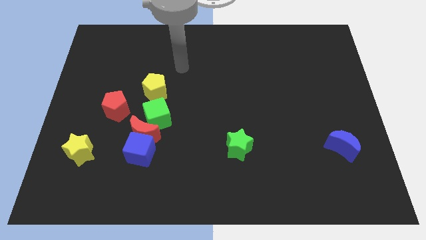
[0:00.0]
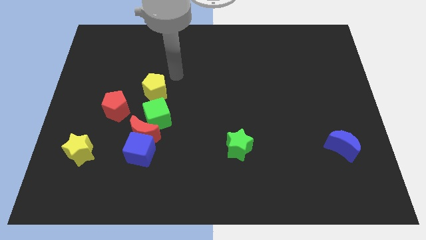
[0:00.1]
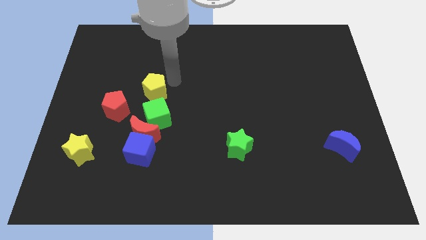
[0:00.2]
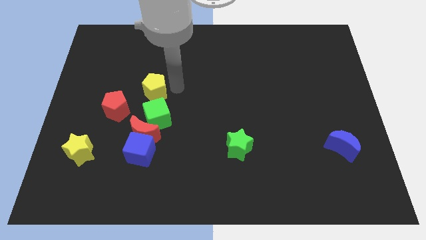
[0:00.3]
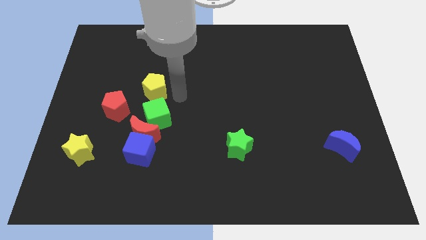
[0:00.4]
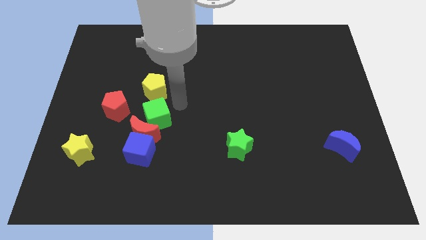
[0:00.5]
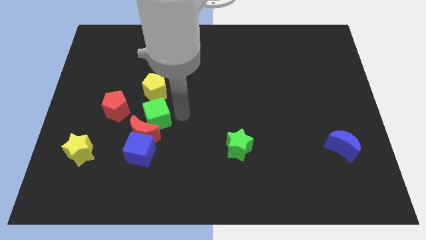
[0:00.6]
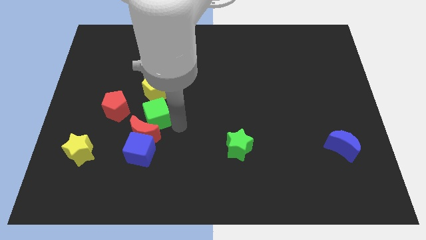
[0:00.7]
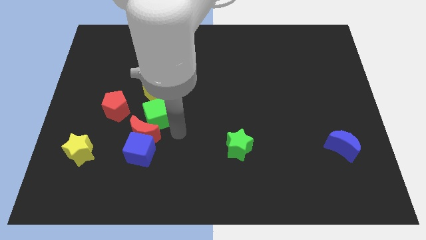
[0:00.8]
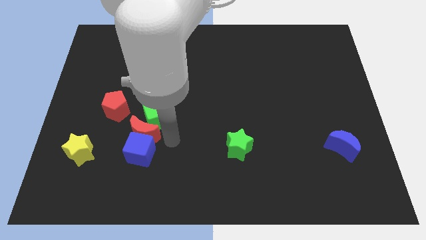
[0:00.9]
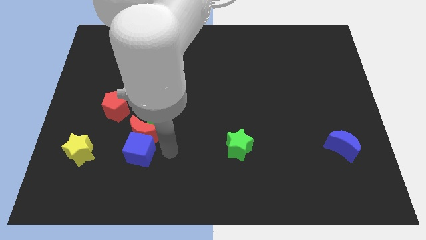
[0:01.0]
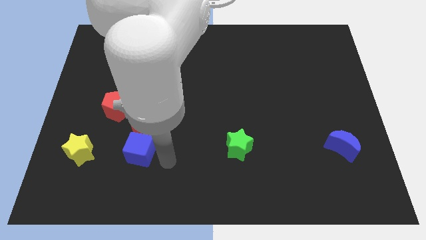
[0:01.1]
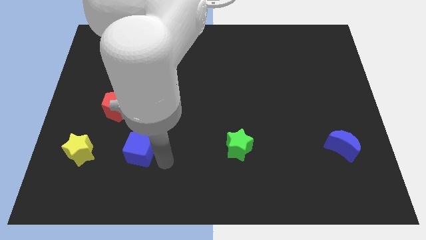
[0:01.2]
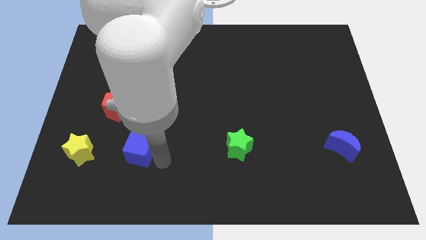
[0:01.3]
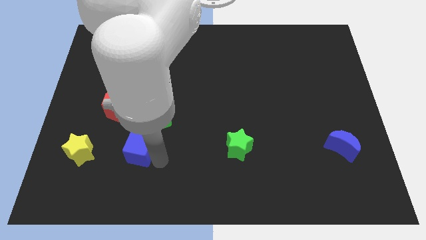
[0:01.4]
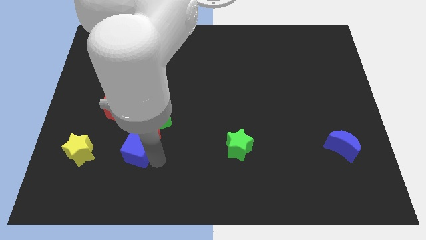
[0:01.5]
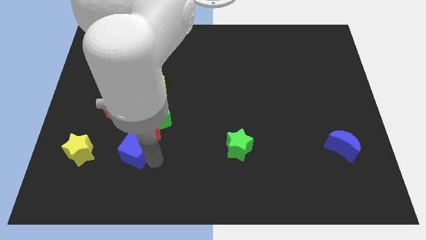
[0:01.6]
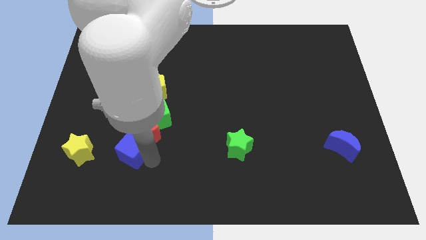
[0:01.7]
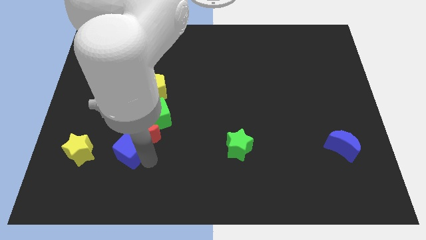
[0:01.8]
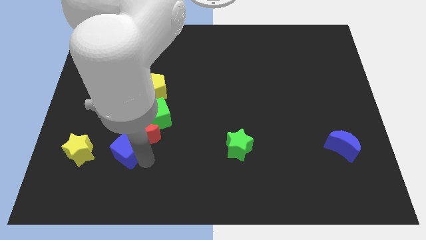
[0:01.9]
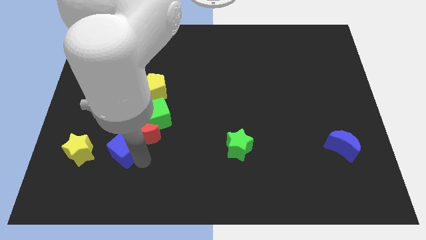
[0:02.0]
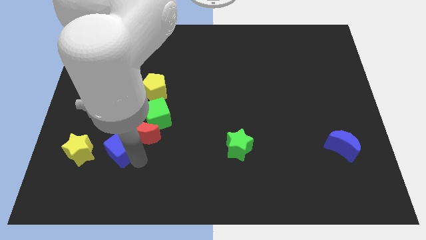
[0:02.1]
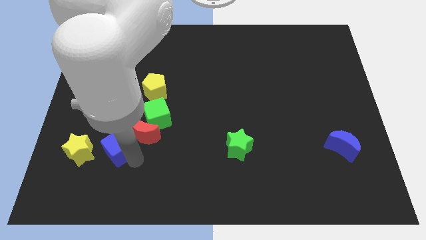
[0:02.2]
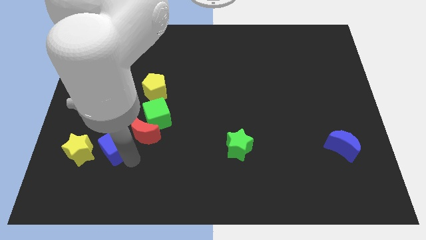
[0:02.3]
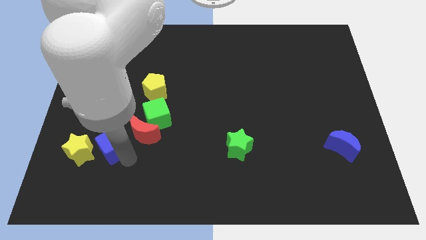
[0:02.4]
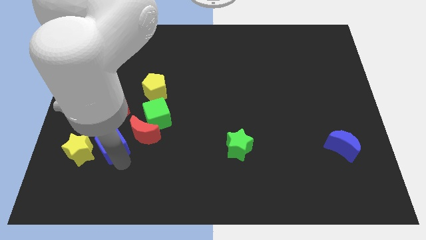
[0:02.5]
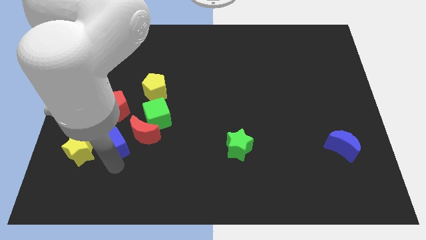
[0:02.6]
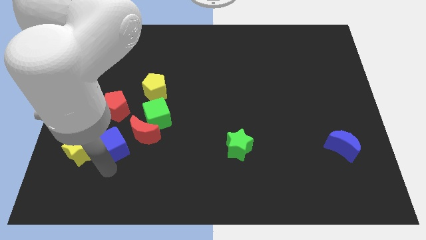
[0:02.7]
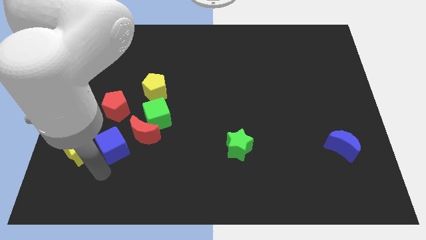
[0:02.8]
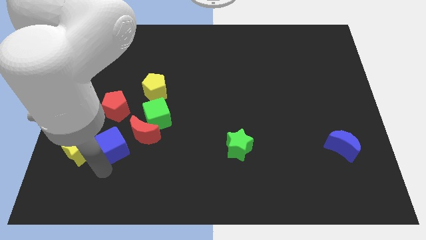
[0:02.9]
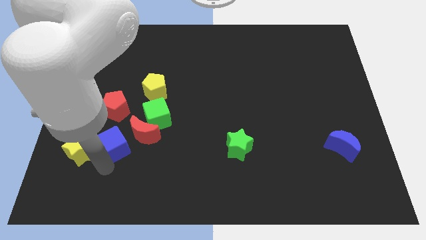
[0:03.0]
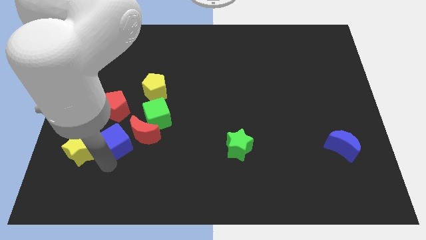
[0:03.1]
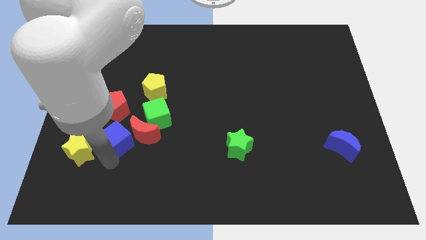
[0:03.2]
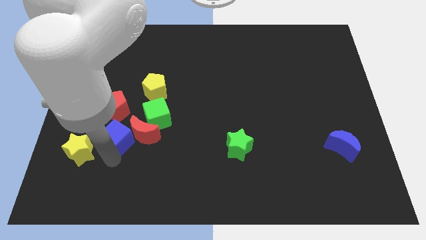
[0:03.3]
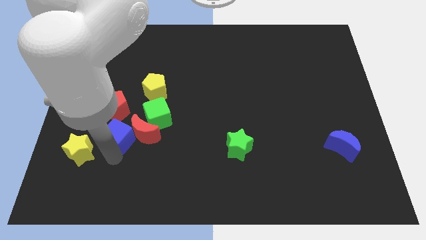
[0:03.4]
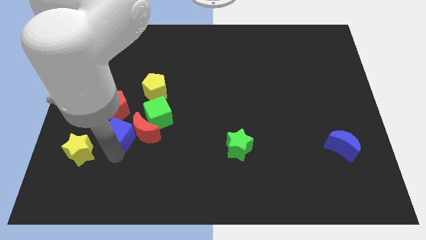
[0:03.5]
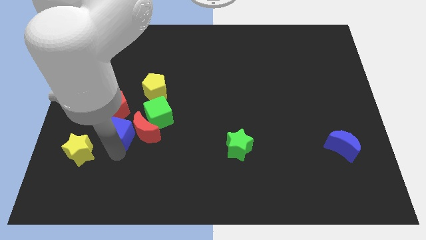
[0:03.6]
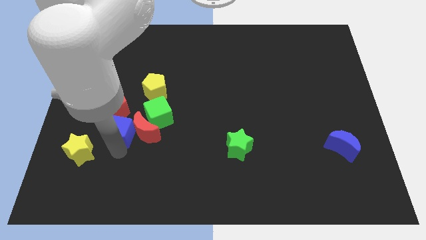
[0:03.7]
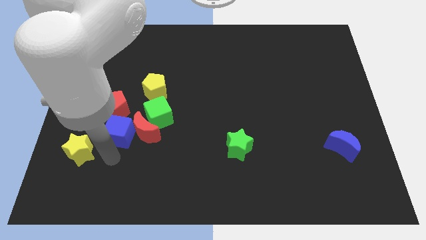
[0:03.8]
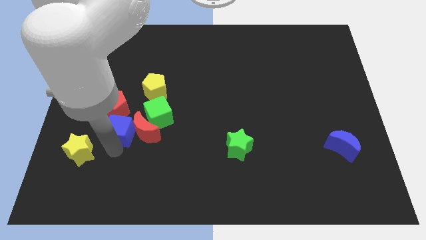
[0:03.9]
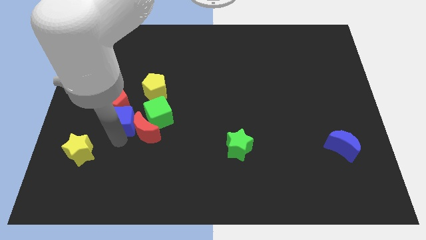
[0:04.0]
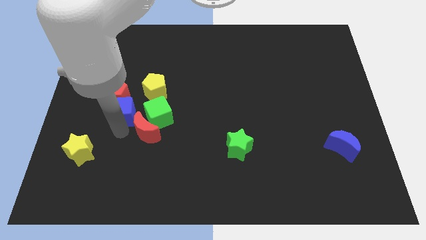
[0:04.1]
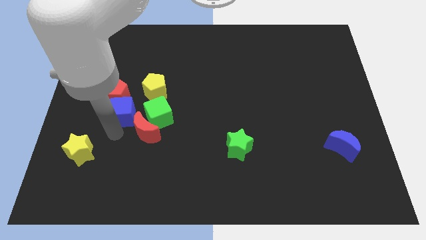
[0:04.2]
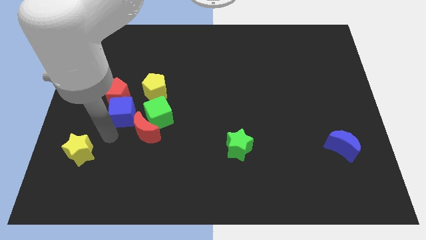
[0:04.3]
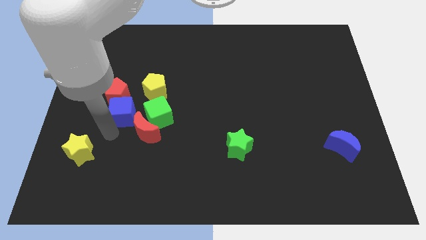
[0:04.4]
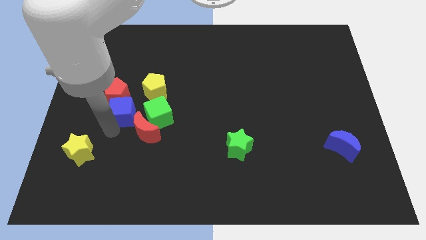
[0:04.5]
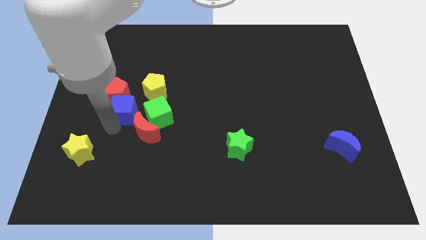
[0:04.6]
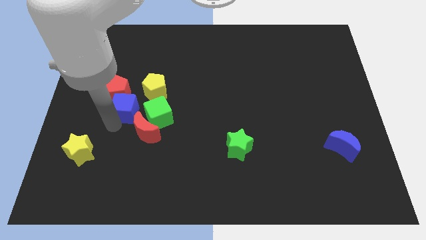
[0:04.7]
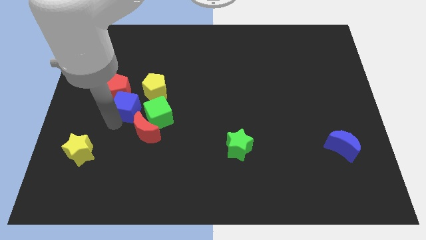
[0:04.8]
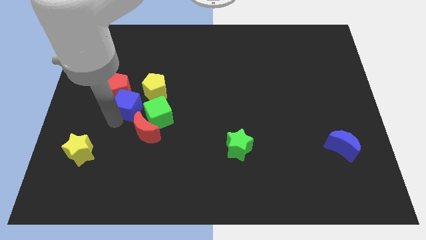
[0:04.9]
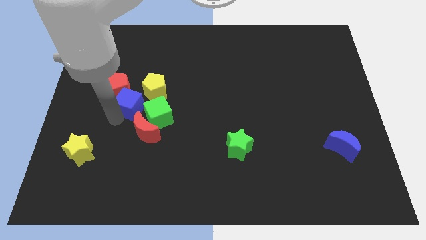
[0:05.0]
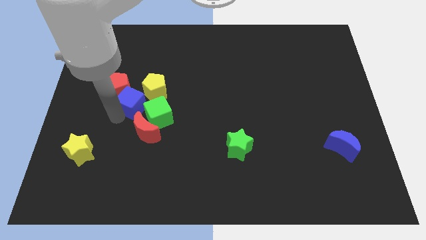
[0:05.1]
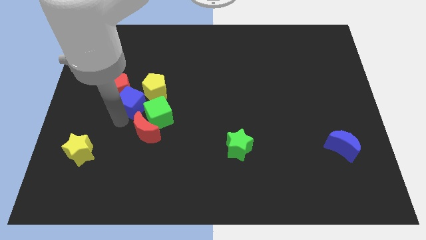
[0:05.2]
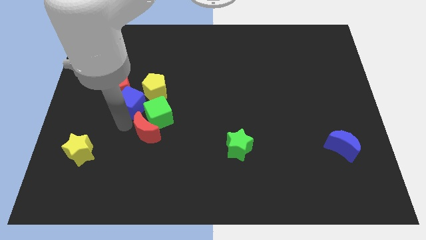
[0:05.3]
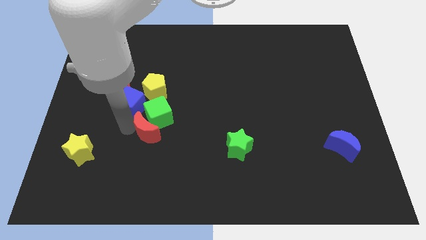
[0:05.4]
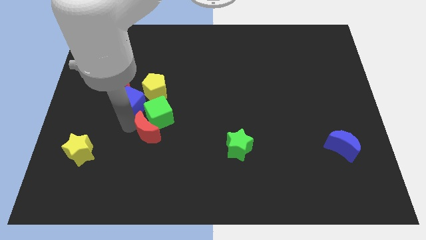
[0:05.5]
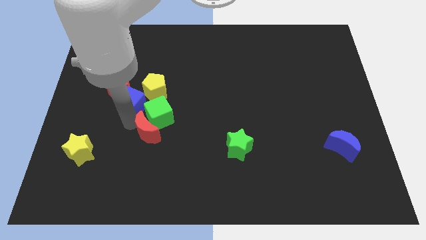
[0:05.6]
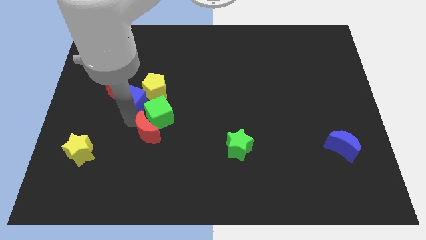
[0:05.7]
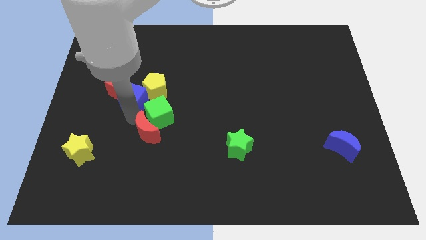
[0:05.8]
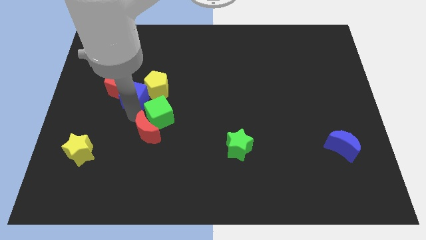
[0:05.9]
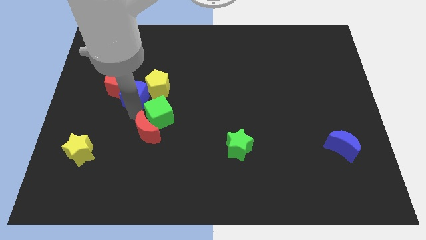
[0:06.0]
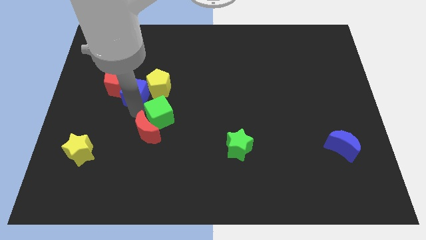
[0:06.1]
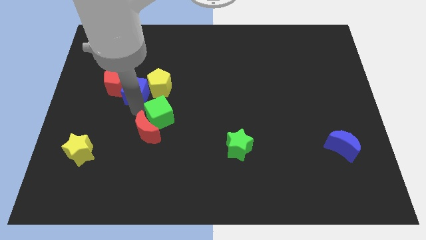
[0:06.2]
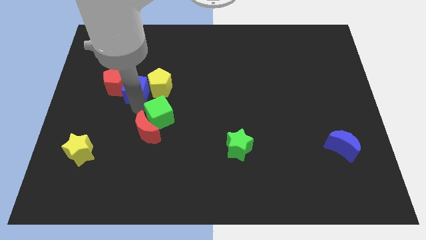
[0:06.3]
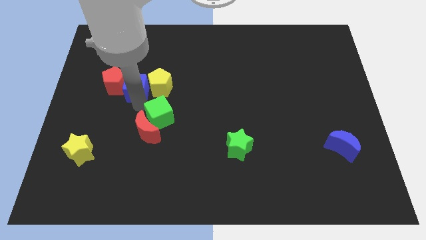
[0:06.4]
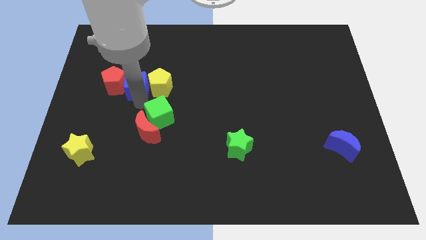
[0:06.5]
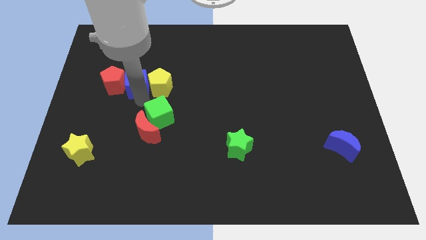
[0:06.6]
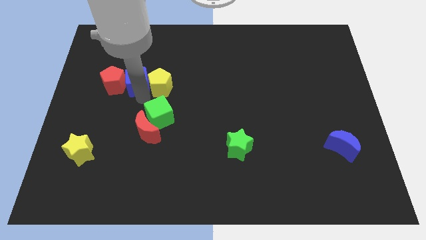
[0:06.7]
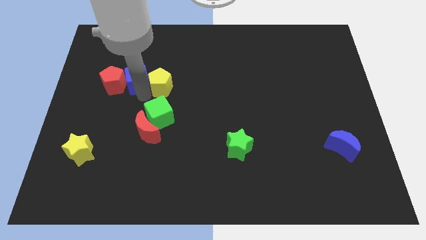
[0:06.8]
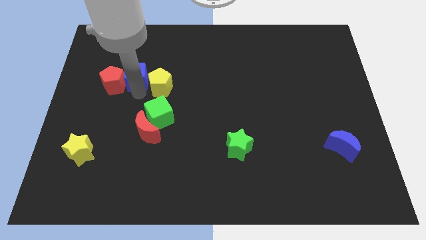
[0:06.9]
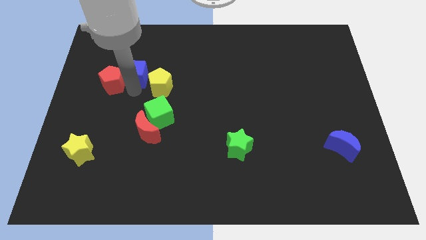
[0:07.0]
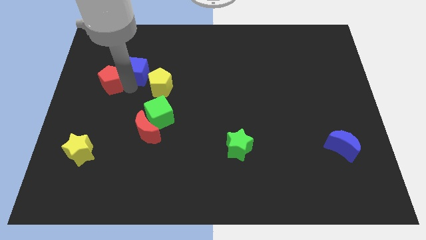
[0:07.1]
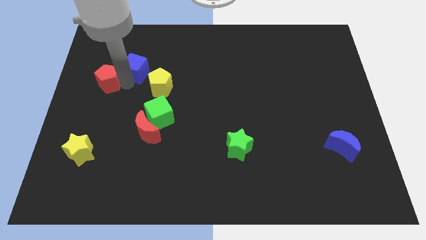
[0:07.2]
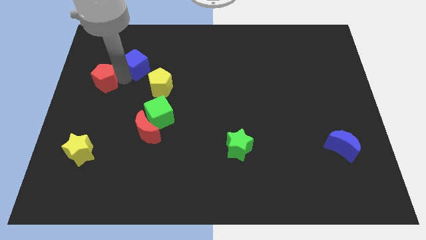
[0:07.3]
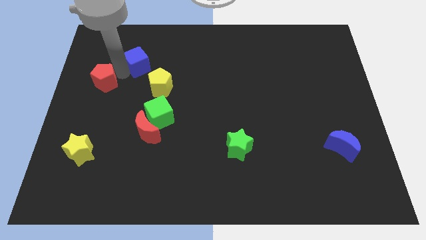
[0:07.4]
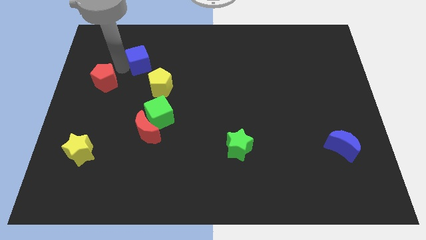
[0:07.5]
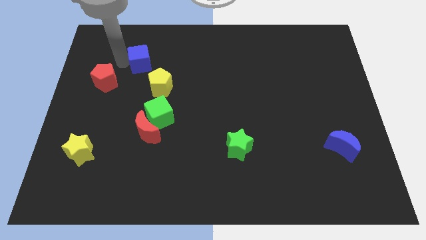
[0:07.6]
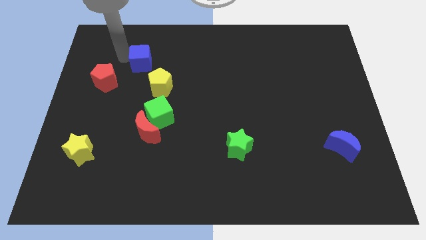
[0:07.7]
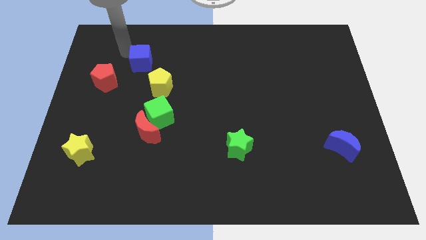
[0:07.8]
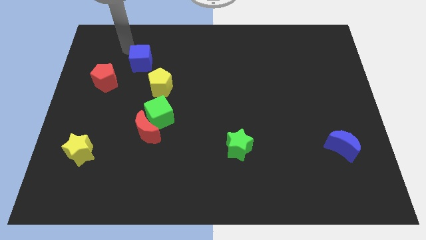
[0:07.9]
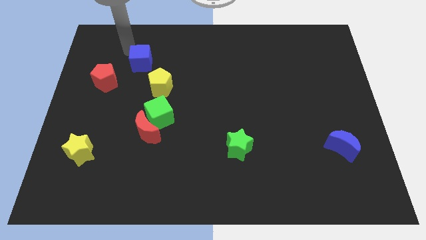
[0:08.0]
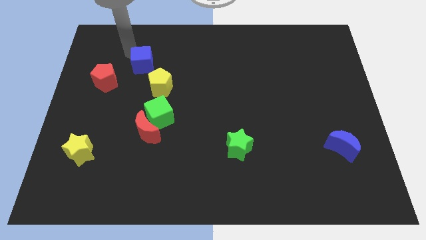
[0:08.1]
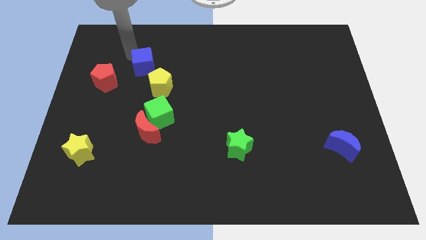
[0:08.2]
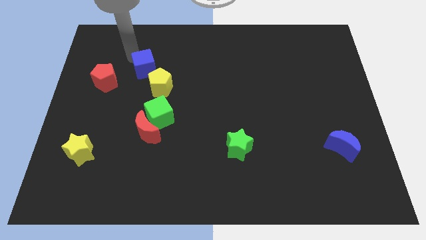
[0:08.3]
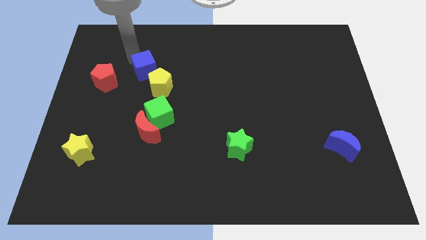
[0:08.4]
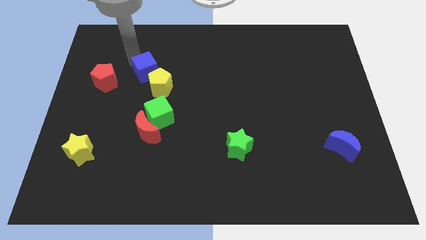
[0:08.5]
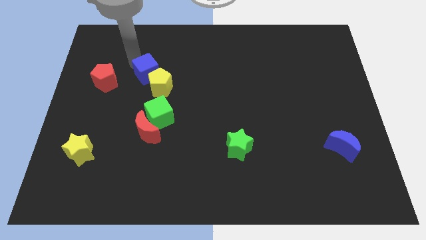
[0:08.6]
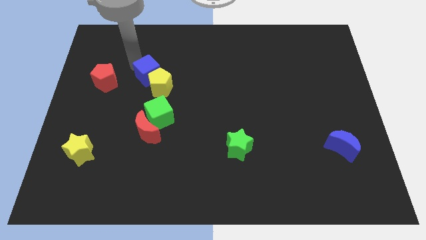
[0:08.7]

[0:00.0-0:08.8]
put the blue cube to the top side of the green cube
